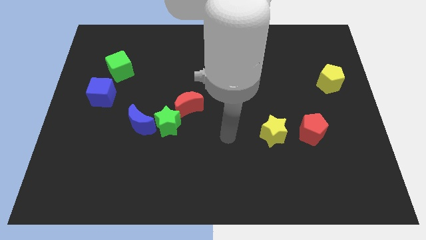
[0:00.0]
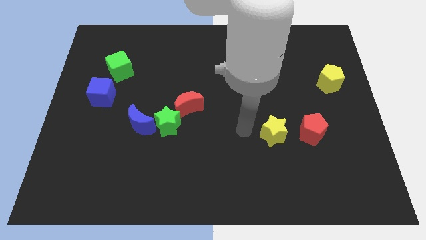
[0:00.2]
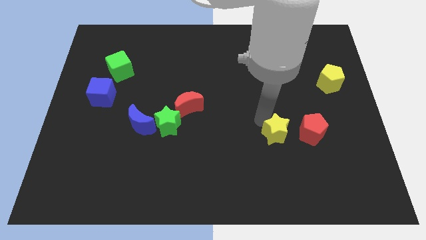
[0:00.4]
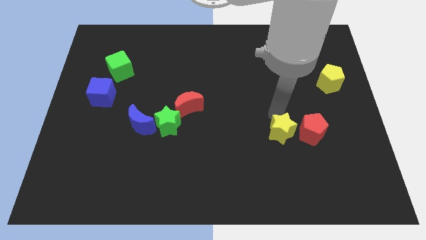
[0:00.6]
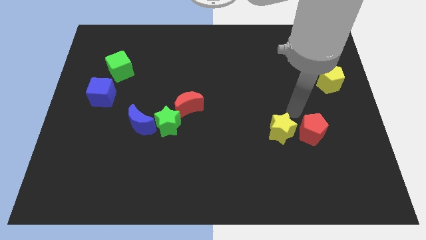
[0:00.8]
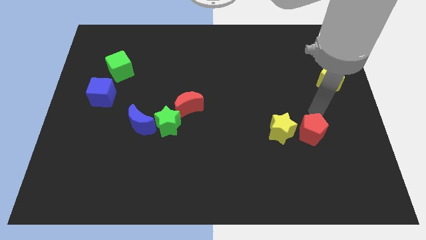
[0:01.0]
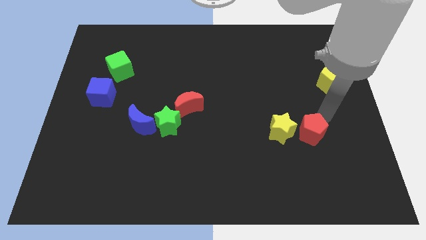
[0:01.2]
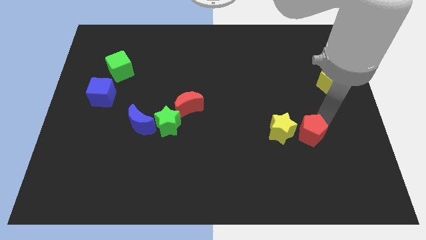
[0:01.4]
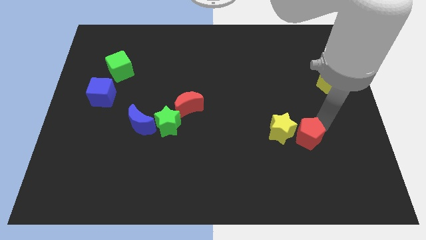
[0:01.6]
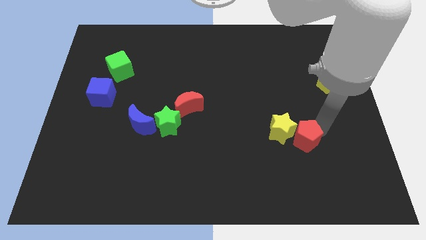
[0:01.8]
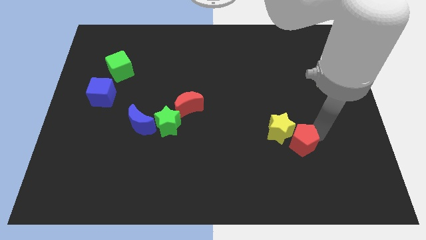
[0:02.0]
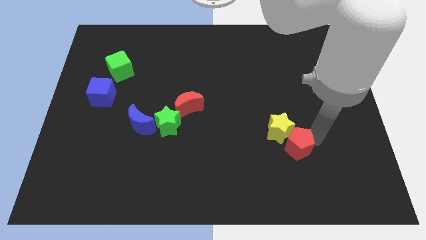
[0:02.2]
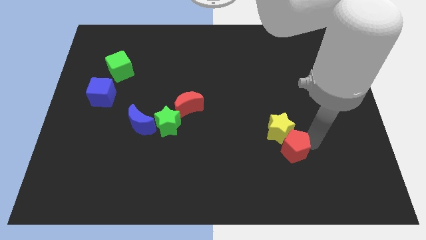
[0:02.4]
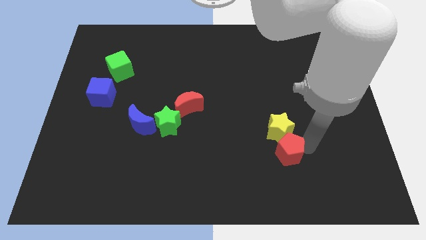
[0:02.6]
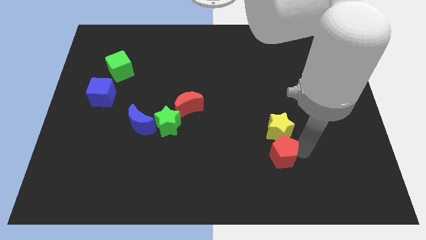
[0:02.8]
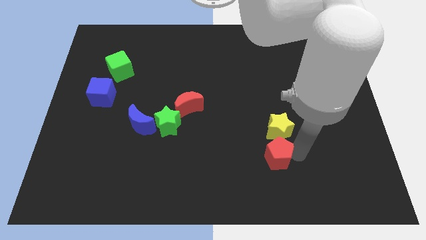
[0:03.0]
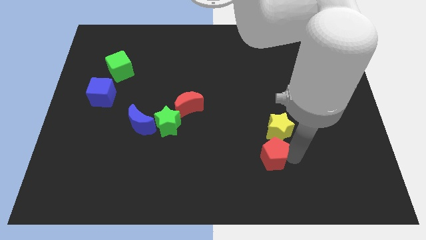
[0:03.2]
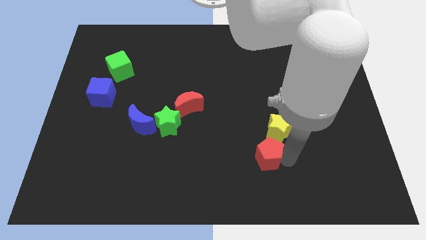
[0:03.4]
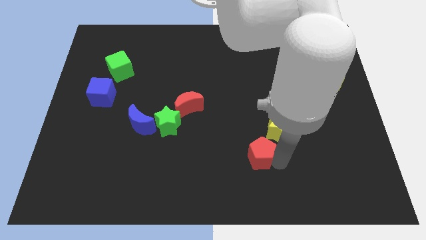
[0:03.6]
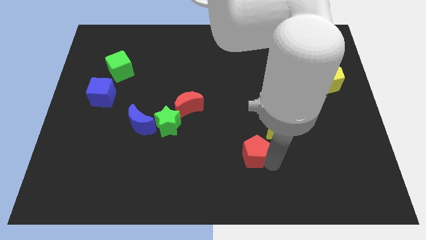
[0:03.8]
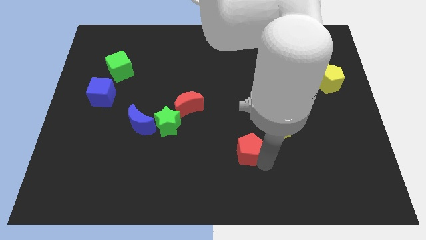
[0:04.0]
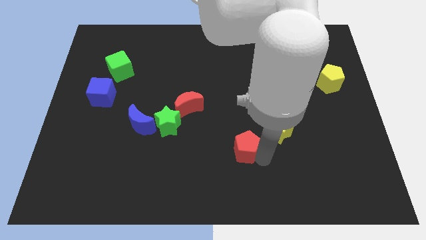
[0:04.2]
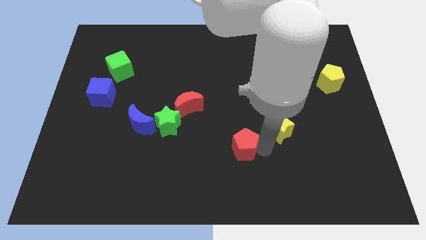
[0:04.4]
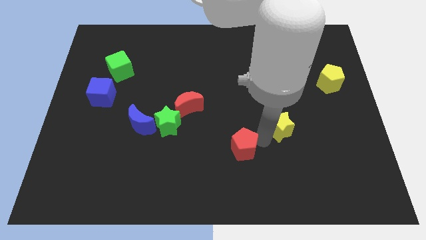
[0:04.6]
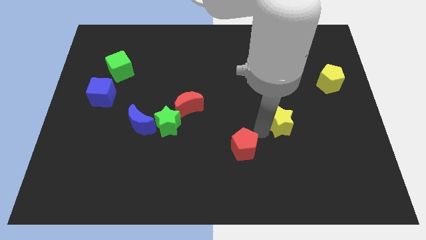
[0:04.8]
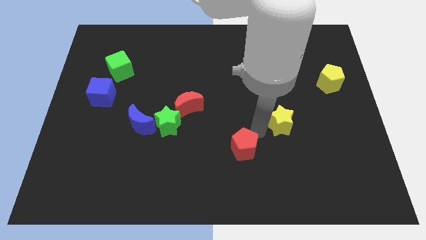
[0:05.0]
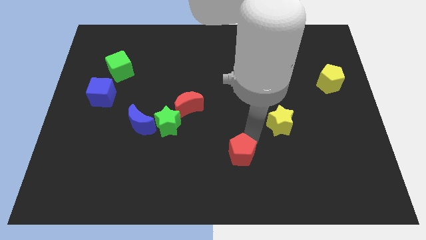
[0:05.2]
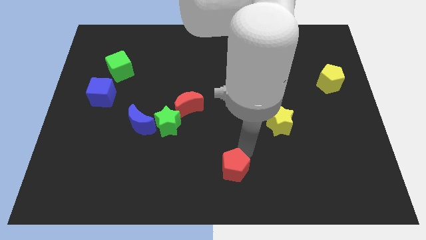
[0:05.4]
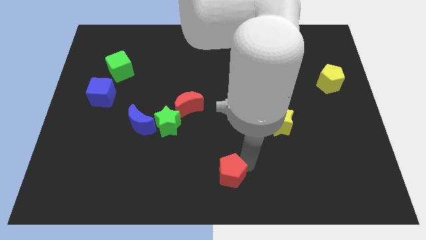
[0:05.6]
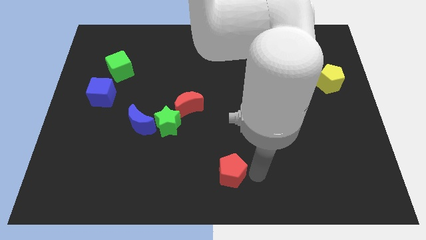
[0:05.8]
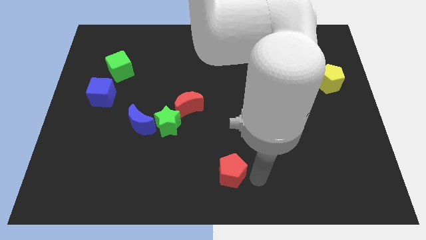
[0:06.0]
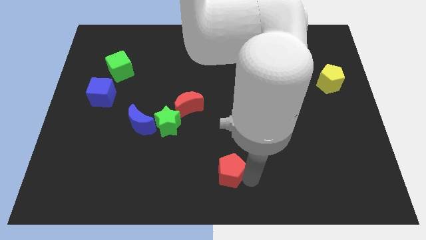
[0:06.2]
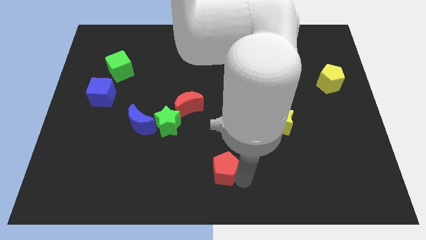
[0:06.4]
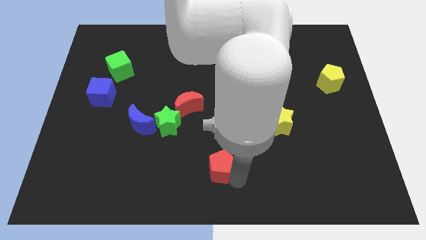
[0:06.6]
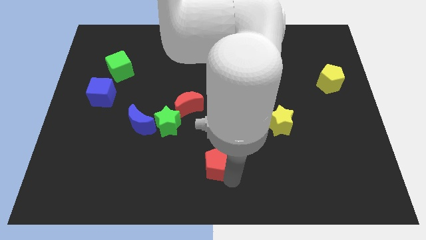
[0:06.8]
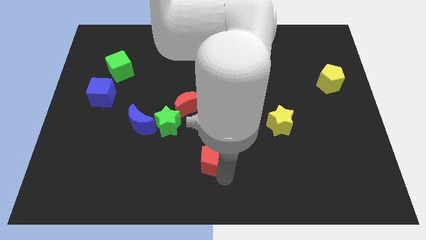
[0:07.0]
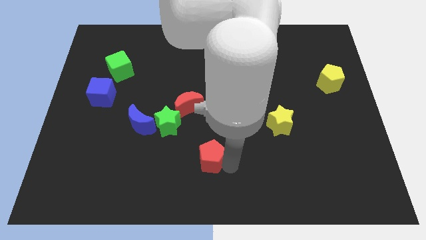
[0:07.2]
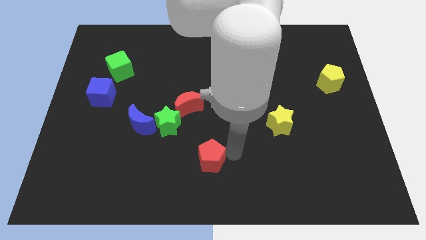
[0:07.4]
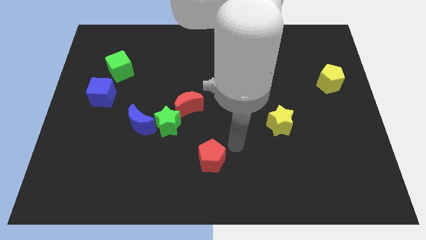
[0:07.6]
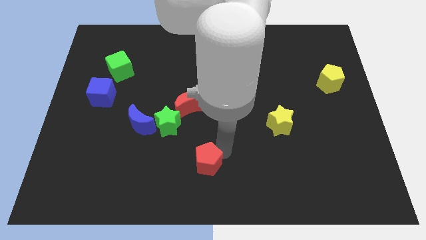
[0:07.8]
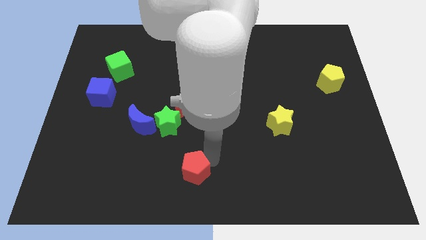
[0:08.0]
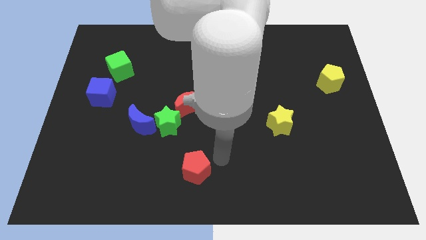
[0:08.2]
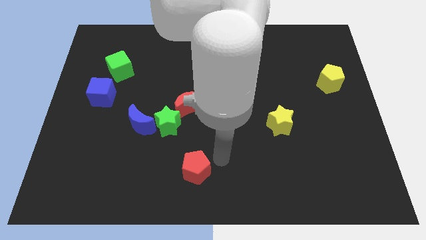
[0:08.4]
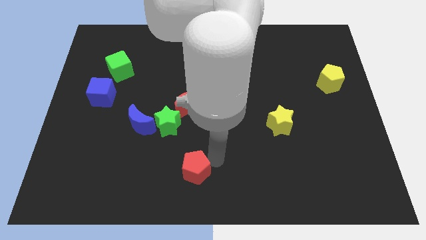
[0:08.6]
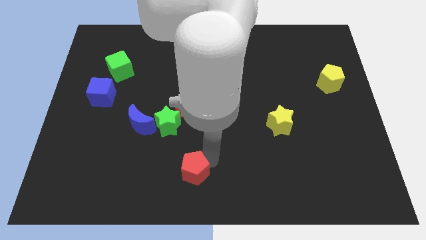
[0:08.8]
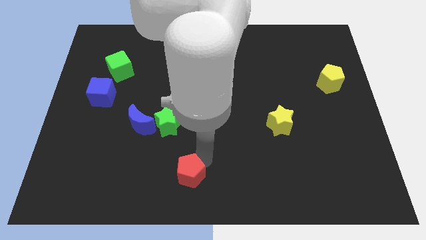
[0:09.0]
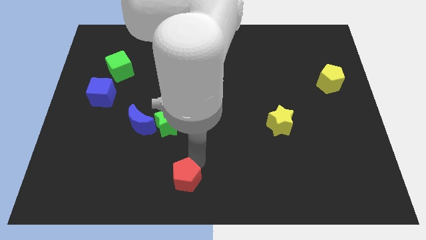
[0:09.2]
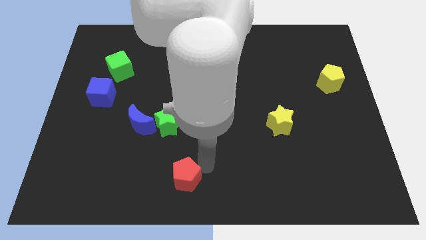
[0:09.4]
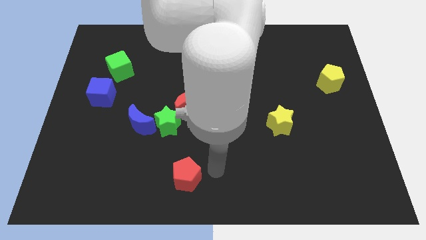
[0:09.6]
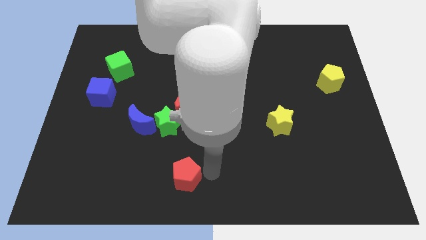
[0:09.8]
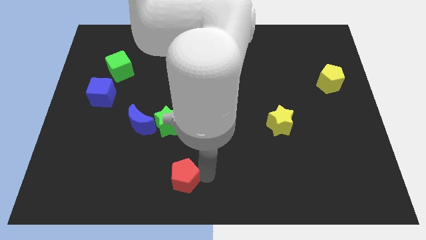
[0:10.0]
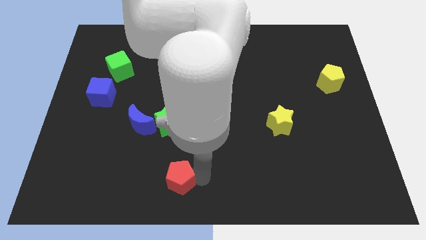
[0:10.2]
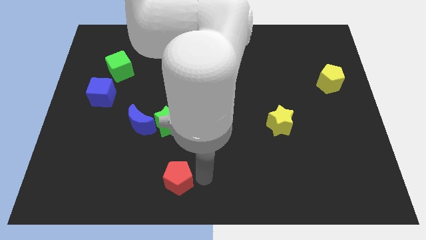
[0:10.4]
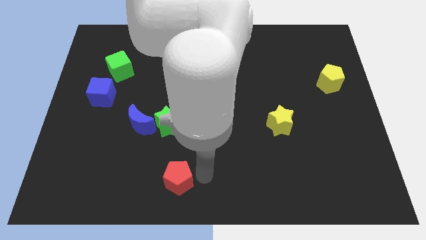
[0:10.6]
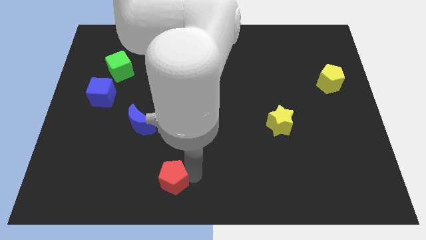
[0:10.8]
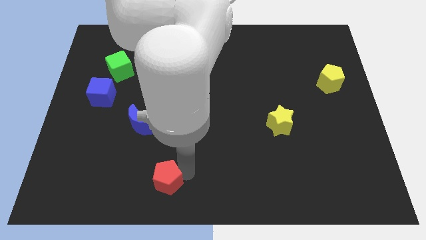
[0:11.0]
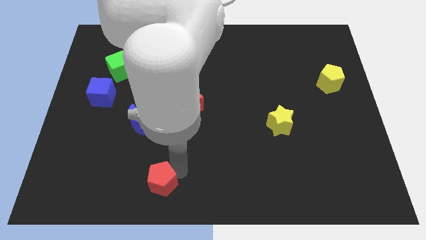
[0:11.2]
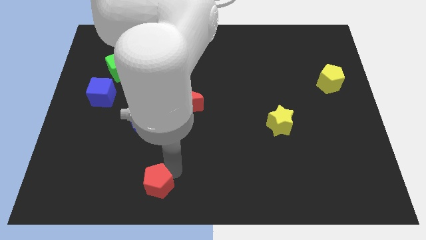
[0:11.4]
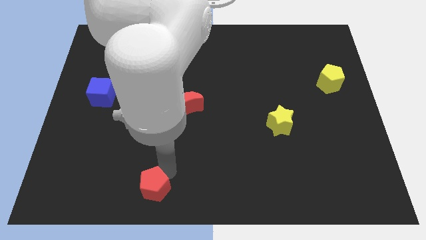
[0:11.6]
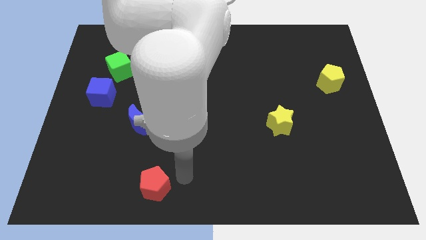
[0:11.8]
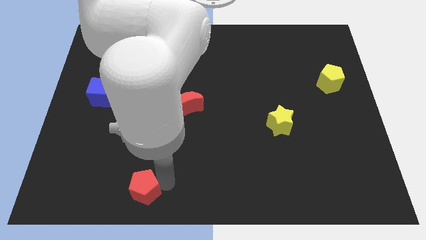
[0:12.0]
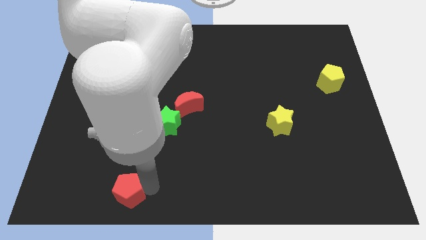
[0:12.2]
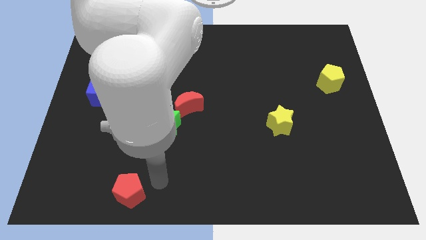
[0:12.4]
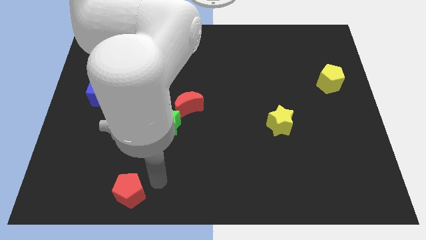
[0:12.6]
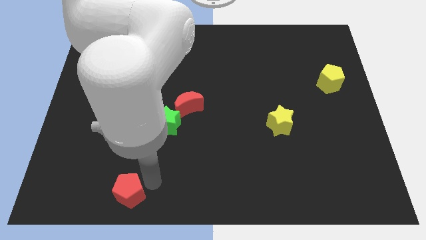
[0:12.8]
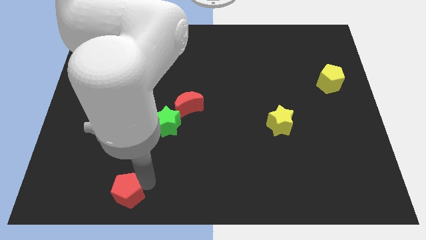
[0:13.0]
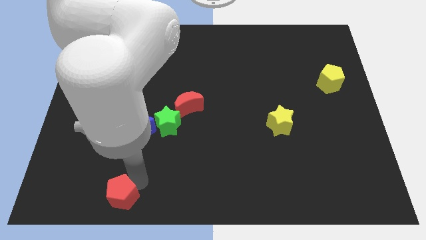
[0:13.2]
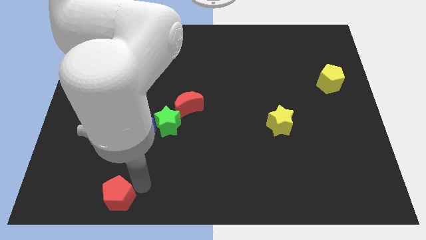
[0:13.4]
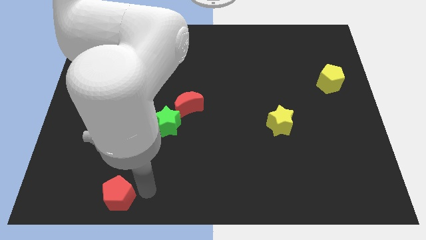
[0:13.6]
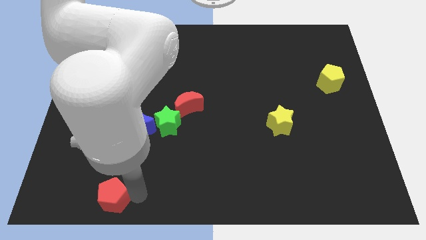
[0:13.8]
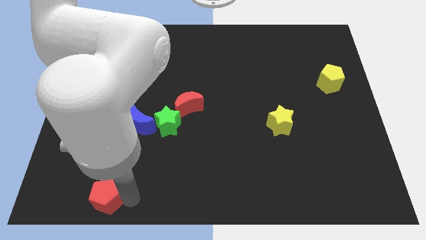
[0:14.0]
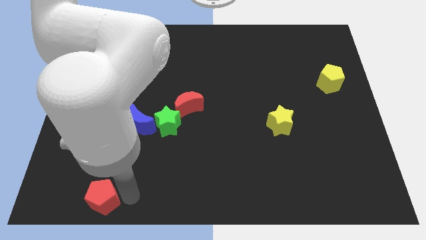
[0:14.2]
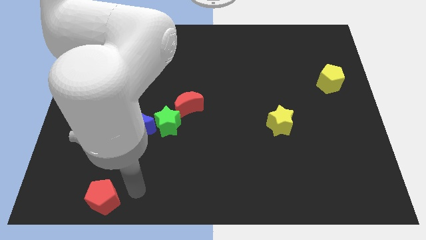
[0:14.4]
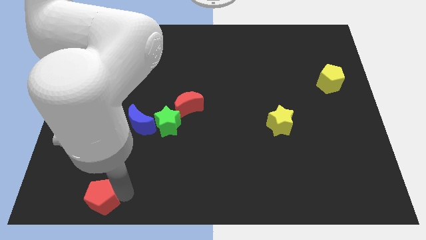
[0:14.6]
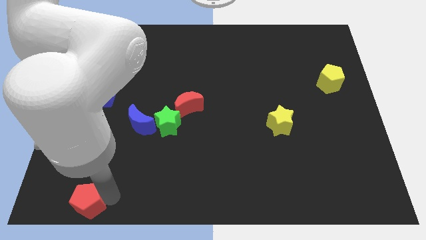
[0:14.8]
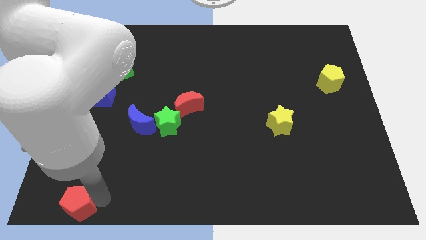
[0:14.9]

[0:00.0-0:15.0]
move the red pentagon to the bottom left corner
